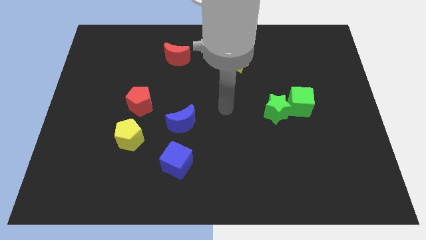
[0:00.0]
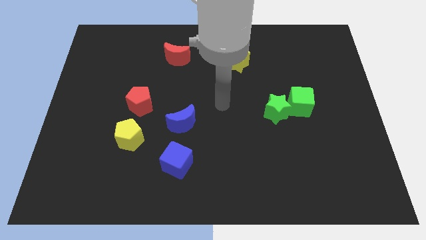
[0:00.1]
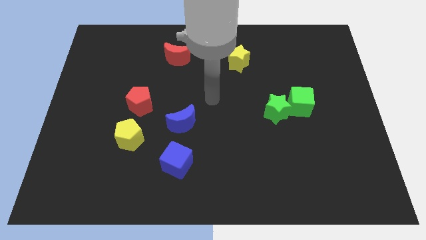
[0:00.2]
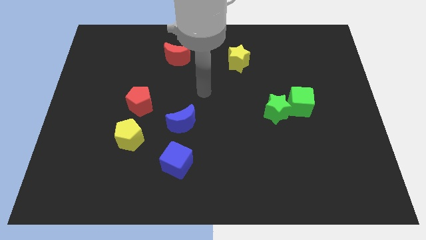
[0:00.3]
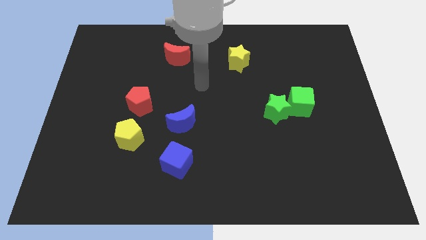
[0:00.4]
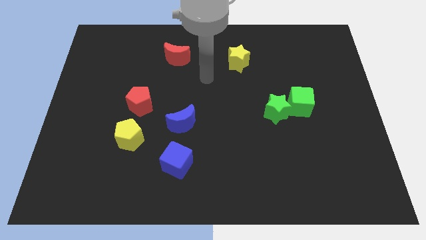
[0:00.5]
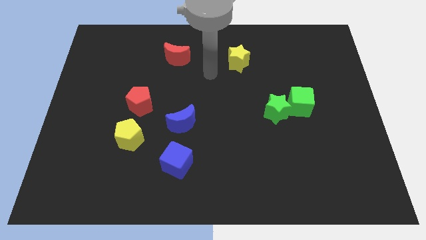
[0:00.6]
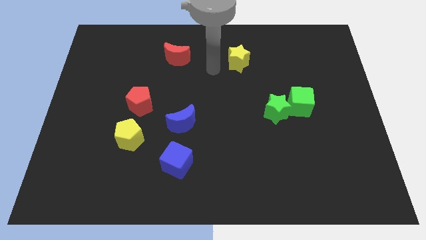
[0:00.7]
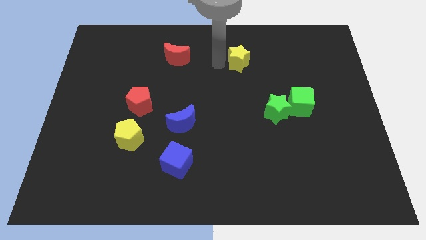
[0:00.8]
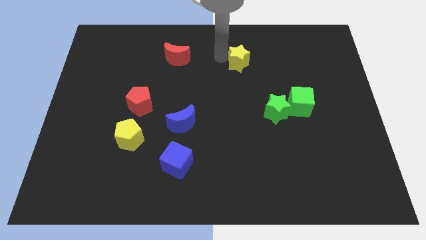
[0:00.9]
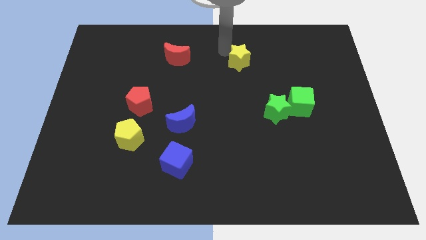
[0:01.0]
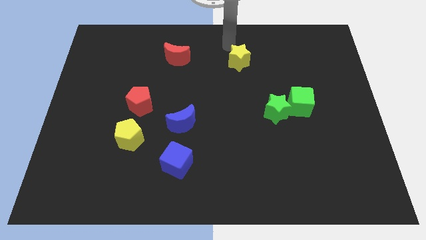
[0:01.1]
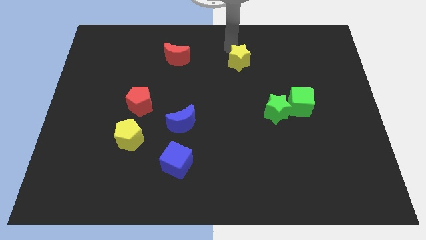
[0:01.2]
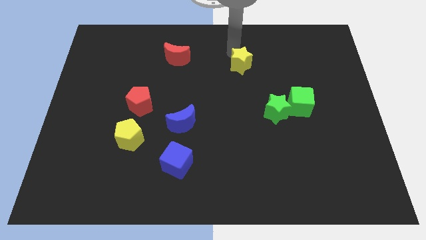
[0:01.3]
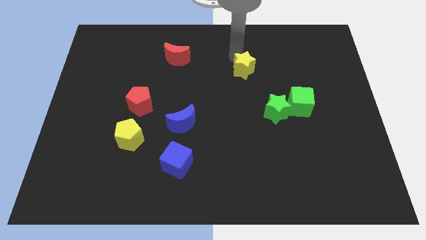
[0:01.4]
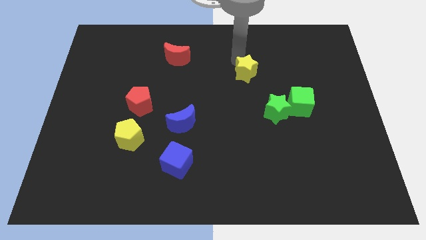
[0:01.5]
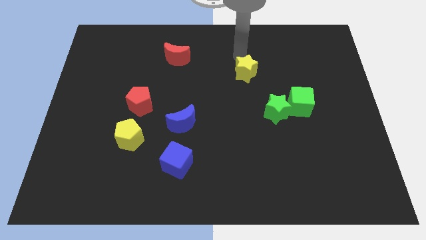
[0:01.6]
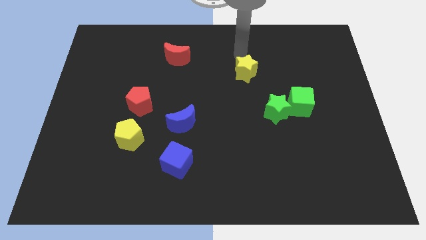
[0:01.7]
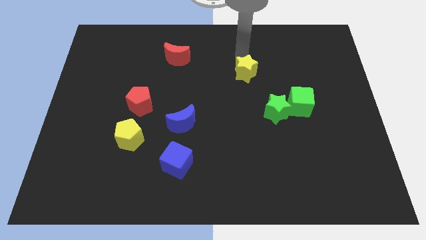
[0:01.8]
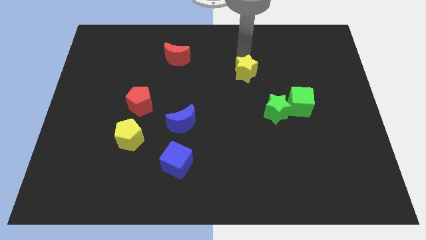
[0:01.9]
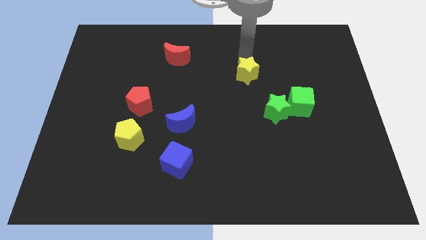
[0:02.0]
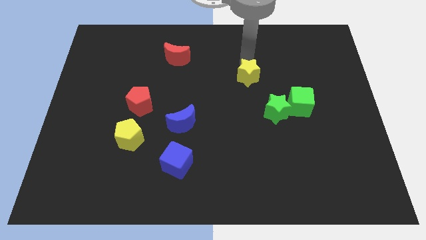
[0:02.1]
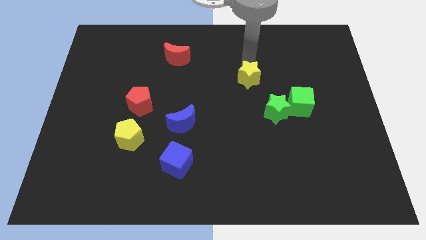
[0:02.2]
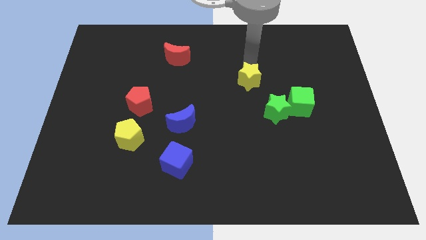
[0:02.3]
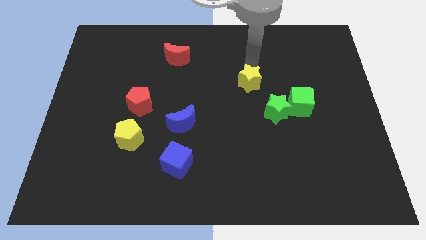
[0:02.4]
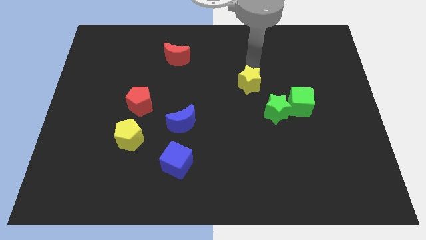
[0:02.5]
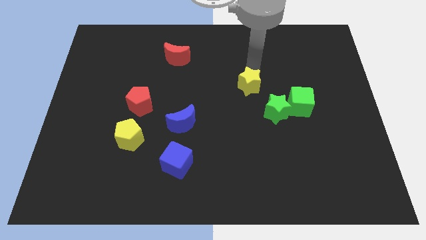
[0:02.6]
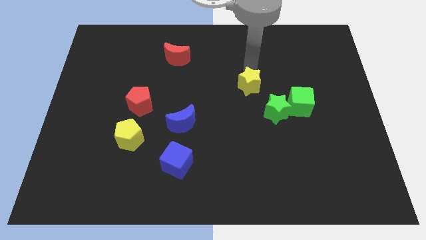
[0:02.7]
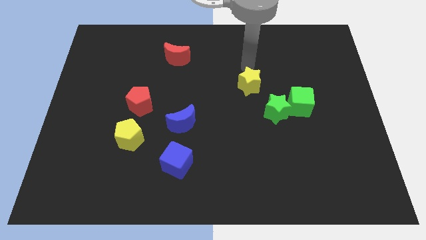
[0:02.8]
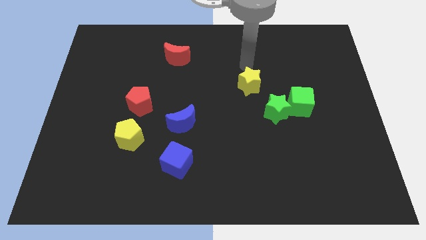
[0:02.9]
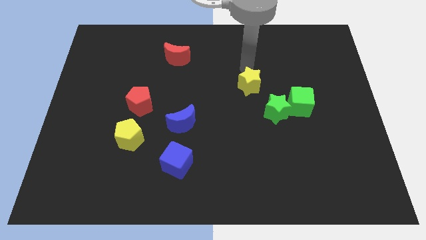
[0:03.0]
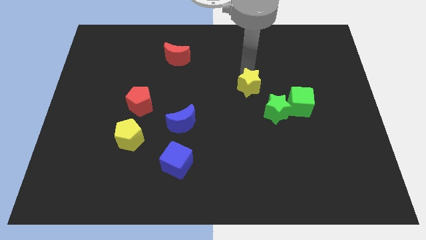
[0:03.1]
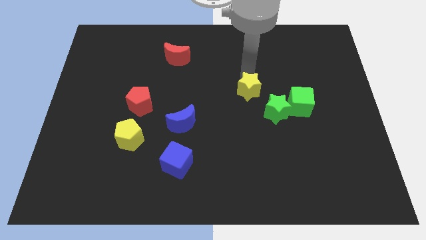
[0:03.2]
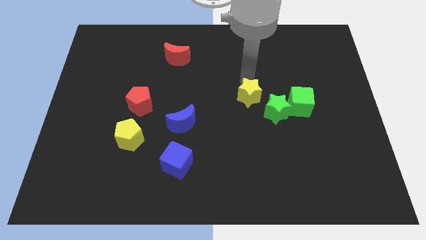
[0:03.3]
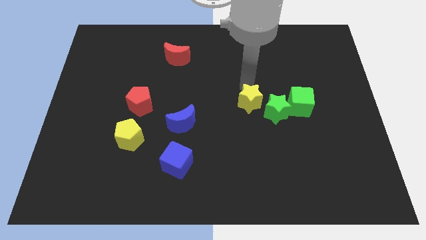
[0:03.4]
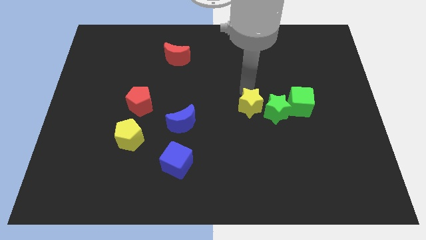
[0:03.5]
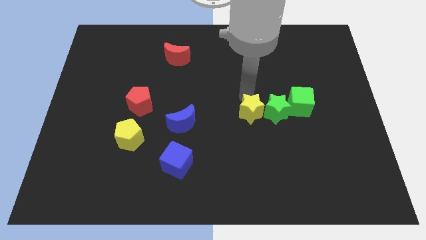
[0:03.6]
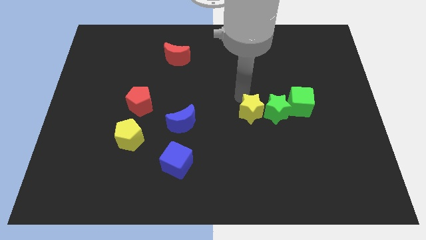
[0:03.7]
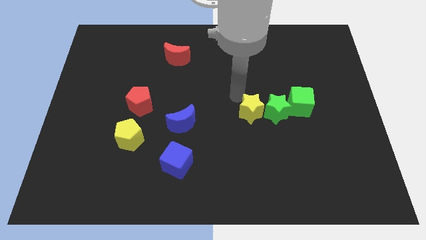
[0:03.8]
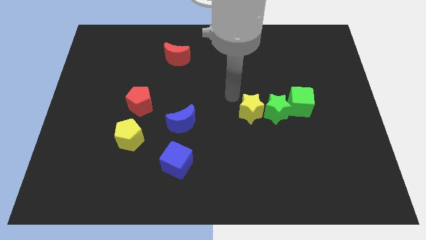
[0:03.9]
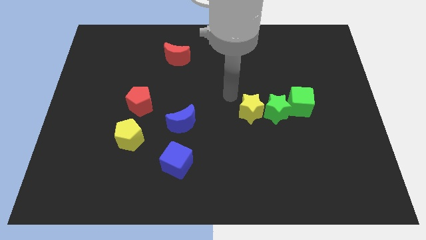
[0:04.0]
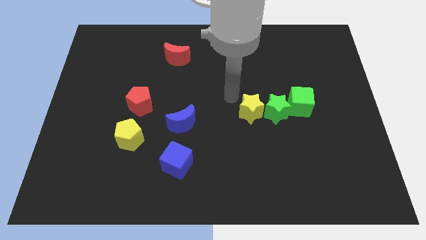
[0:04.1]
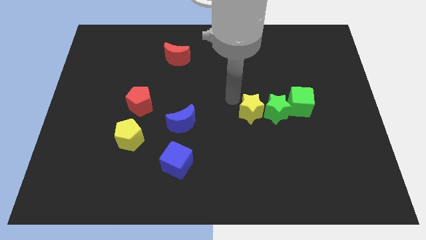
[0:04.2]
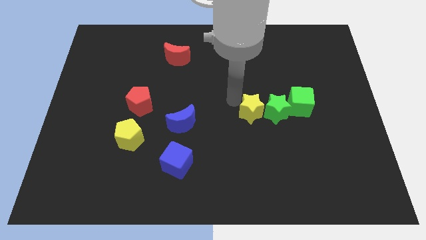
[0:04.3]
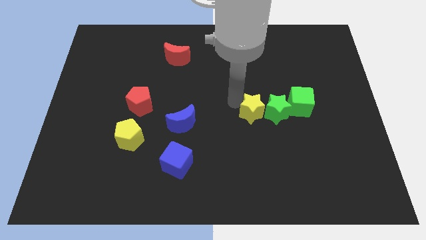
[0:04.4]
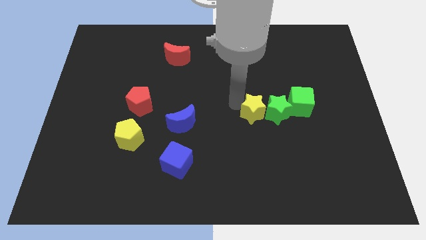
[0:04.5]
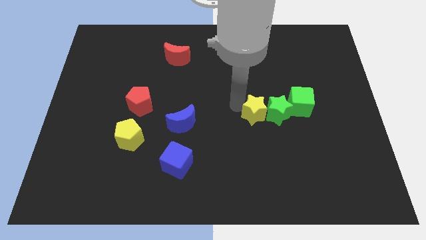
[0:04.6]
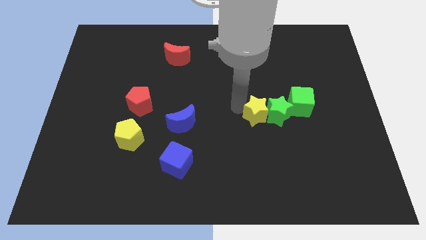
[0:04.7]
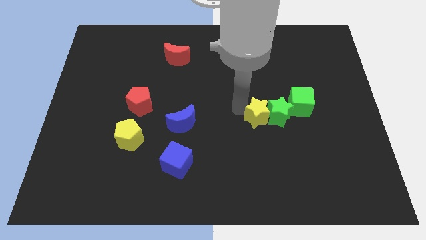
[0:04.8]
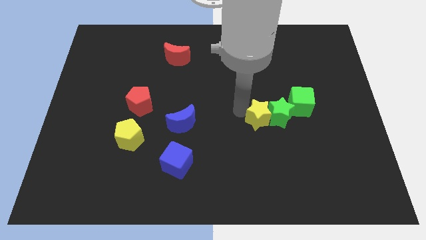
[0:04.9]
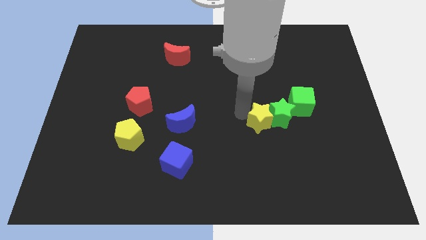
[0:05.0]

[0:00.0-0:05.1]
move the yellow star to the bottom left of the green cube

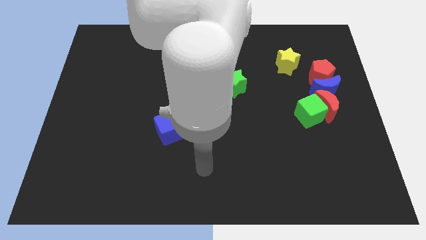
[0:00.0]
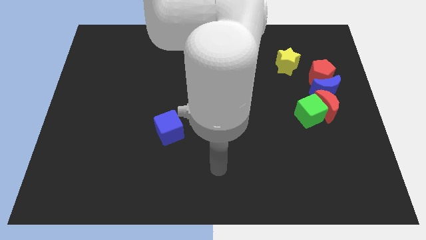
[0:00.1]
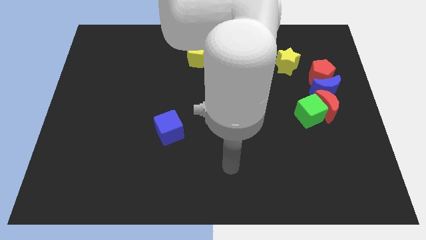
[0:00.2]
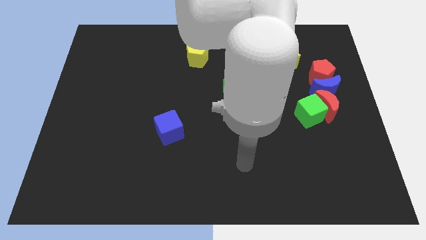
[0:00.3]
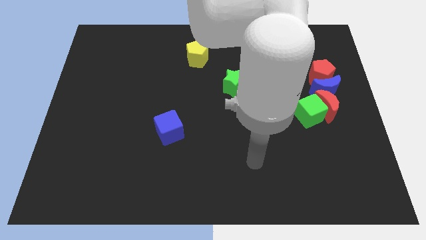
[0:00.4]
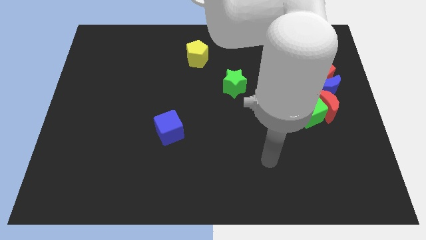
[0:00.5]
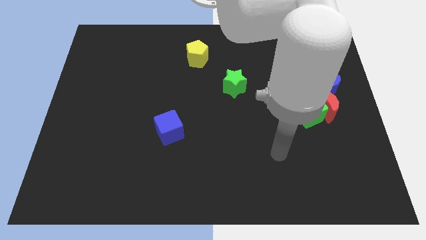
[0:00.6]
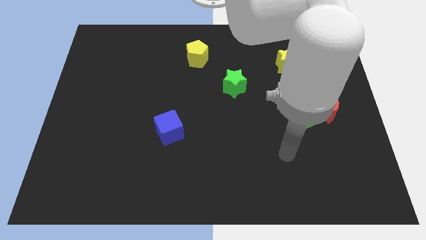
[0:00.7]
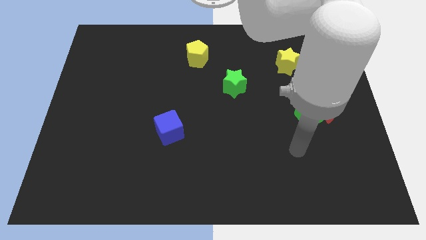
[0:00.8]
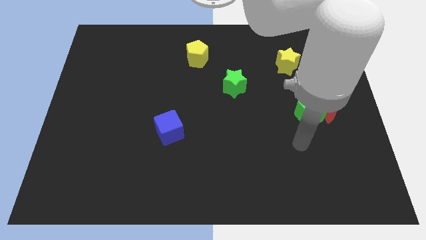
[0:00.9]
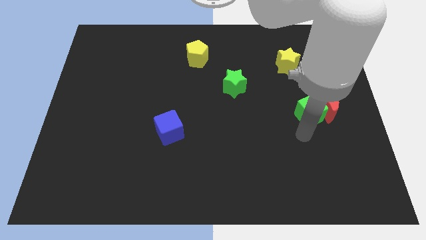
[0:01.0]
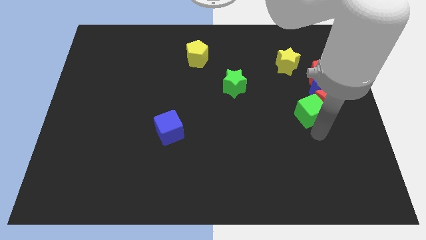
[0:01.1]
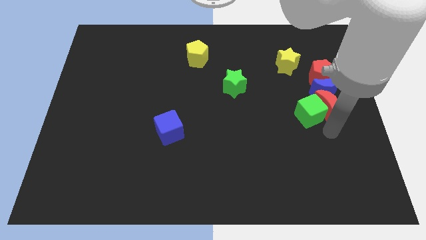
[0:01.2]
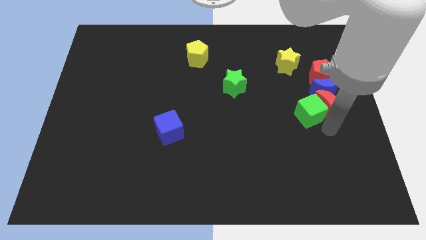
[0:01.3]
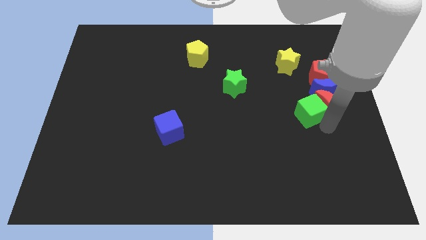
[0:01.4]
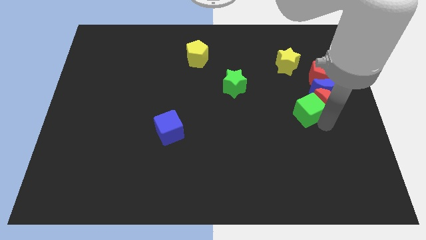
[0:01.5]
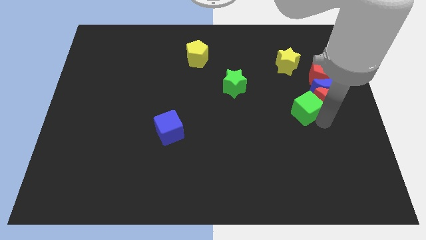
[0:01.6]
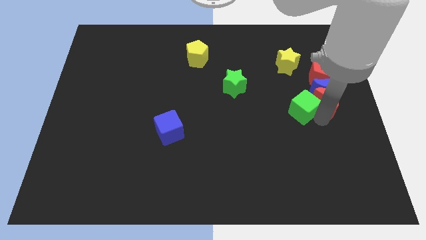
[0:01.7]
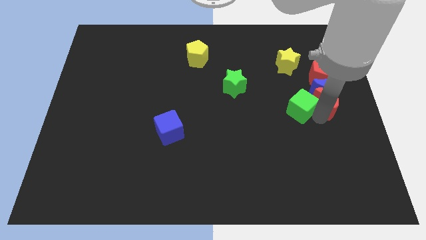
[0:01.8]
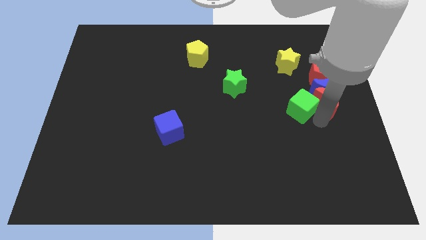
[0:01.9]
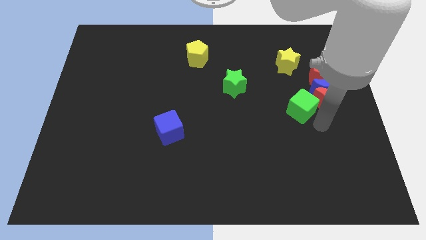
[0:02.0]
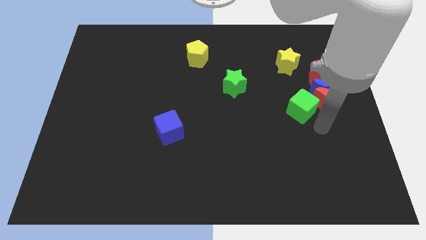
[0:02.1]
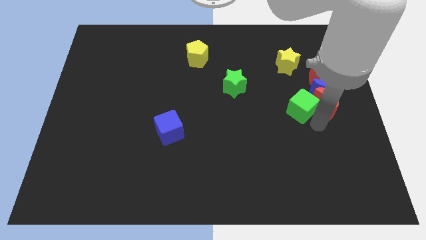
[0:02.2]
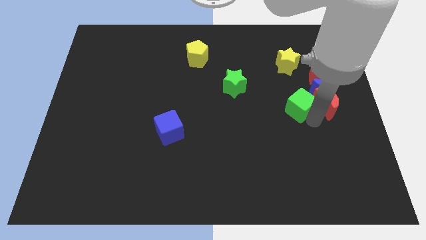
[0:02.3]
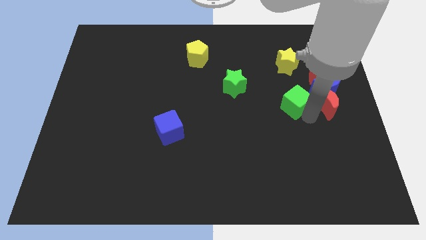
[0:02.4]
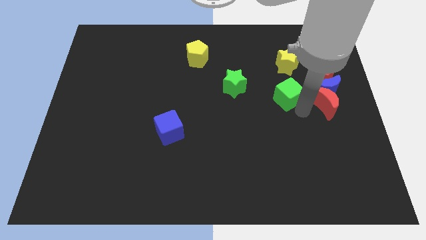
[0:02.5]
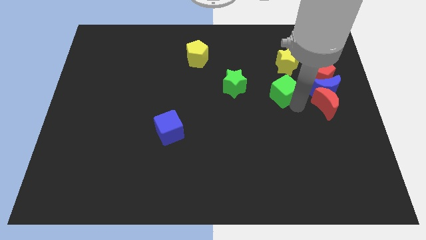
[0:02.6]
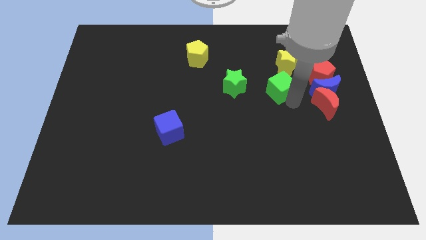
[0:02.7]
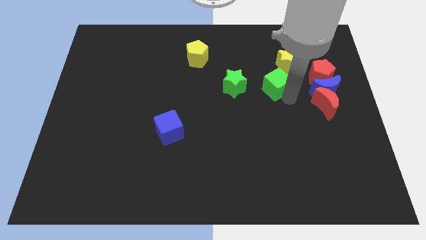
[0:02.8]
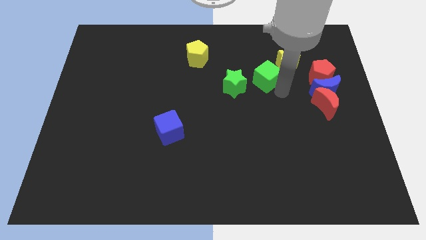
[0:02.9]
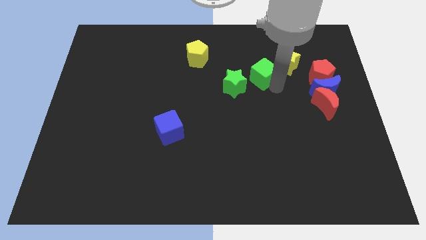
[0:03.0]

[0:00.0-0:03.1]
push the green cube just left of the yellow star
